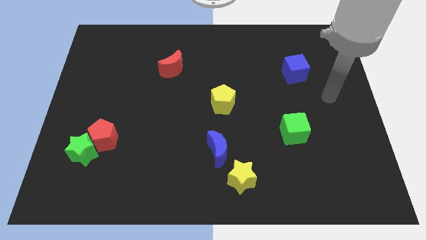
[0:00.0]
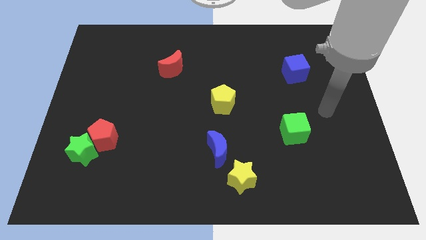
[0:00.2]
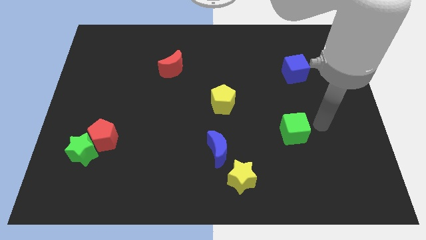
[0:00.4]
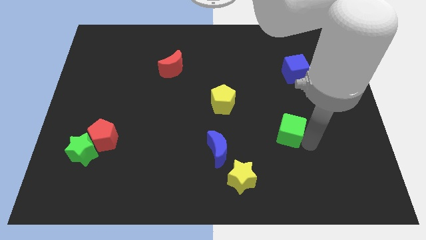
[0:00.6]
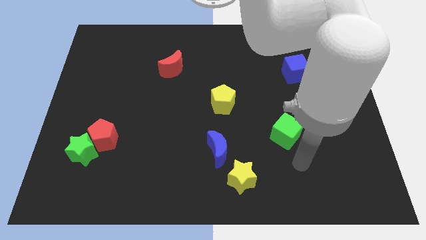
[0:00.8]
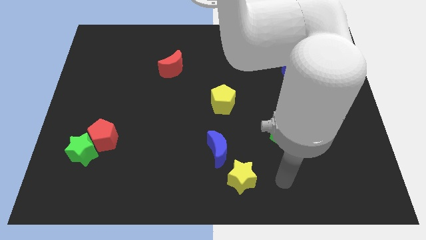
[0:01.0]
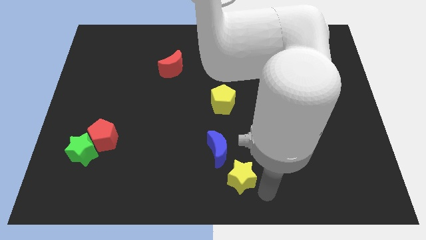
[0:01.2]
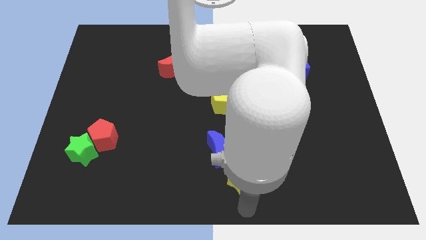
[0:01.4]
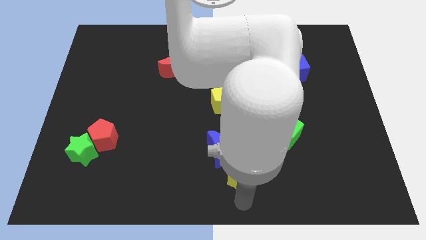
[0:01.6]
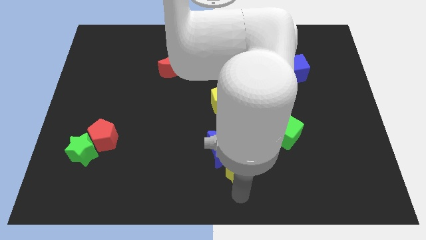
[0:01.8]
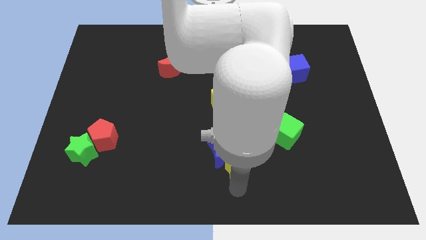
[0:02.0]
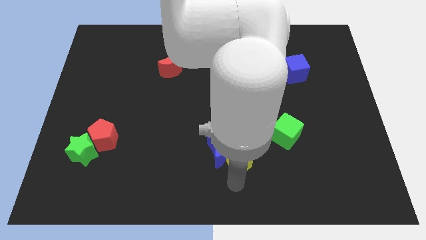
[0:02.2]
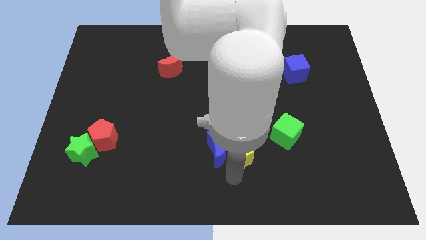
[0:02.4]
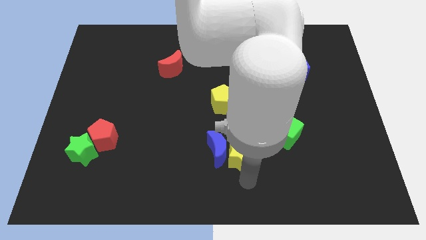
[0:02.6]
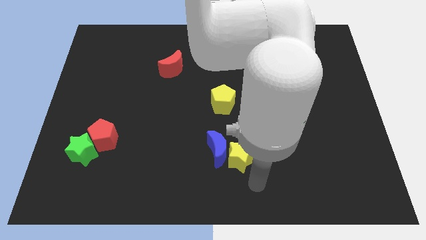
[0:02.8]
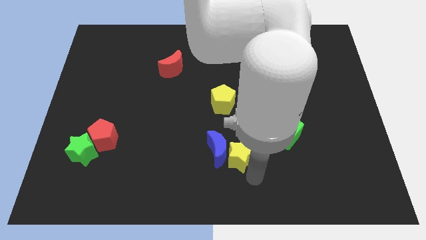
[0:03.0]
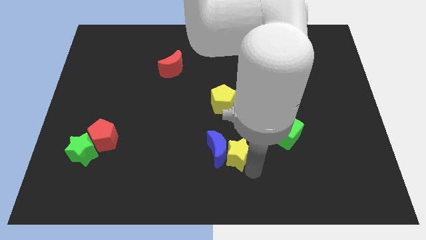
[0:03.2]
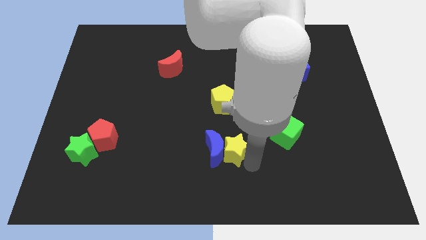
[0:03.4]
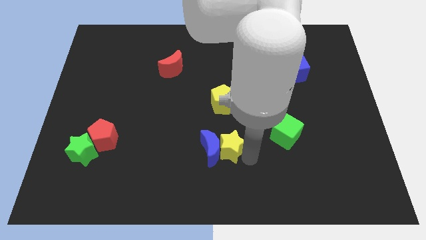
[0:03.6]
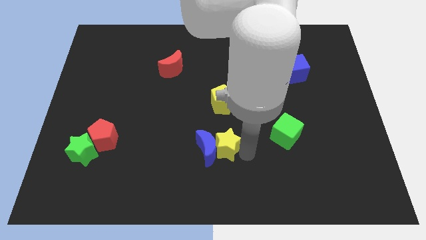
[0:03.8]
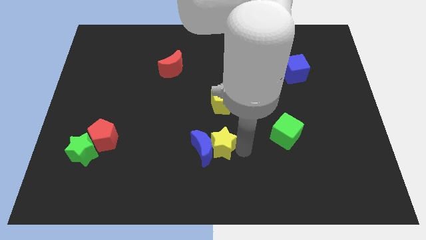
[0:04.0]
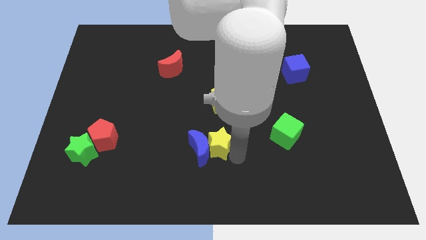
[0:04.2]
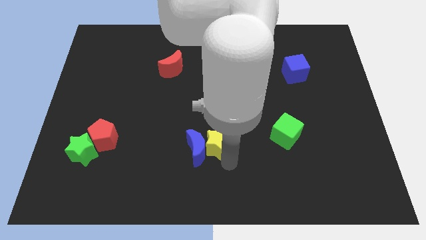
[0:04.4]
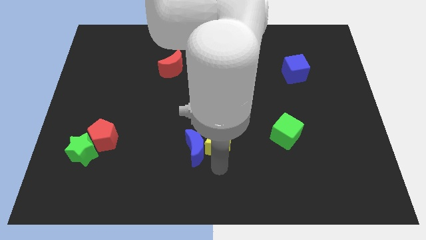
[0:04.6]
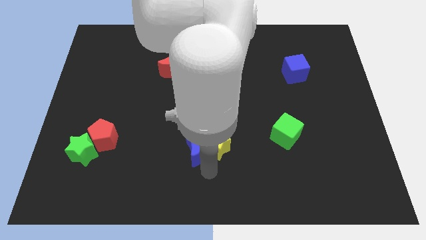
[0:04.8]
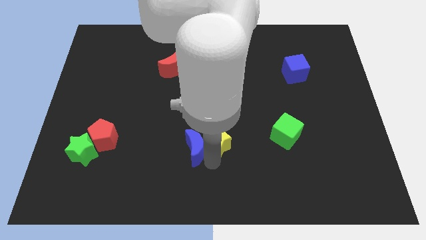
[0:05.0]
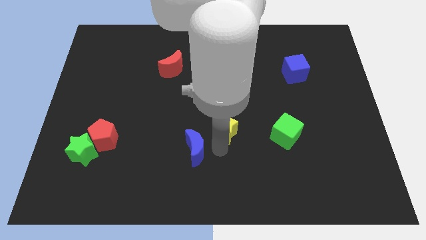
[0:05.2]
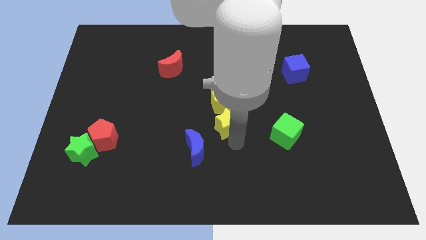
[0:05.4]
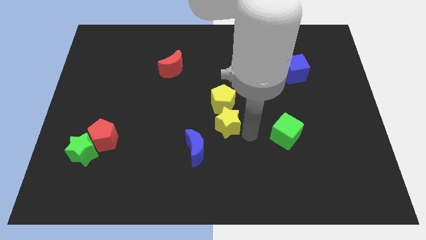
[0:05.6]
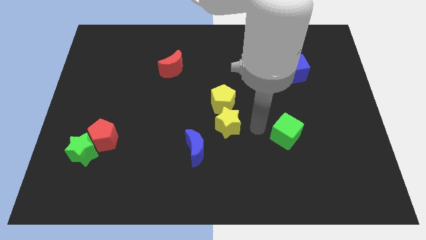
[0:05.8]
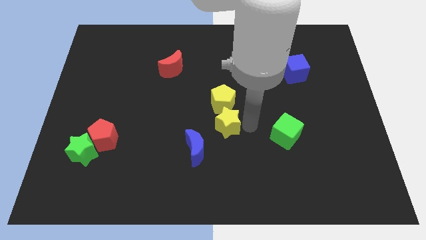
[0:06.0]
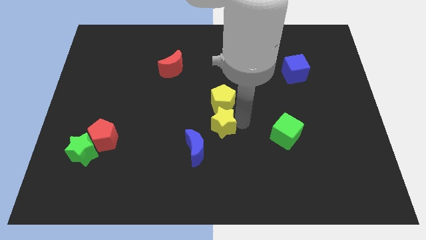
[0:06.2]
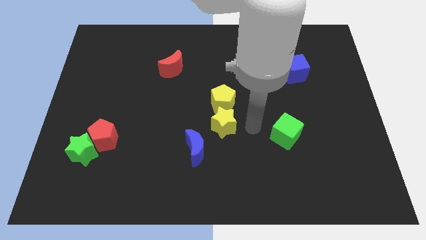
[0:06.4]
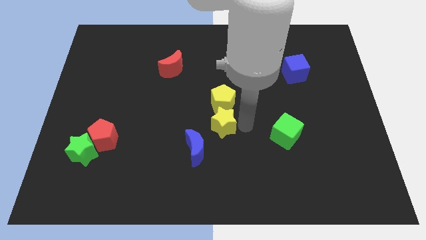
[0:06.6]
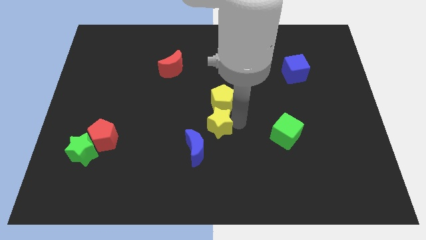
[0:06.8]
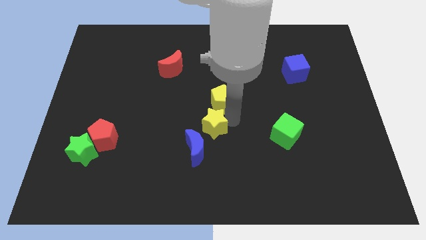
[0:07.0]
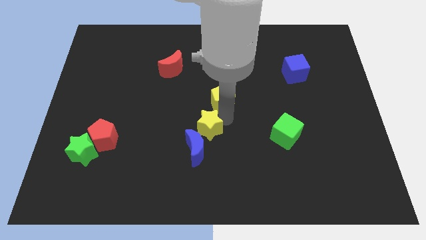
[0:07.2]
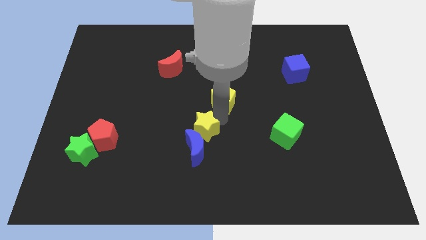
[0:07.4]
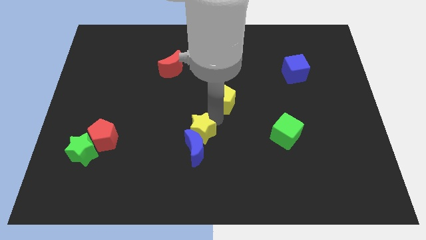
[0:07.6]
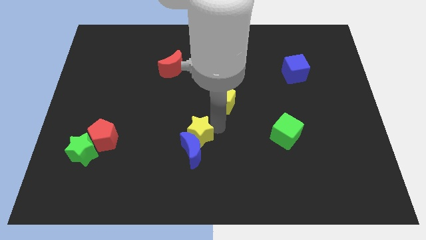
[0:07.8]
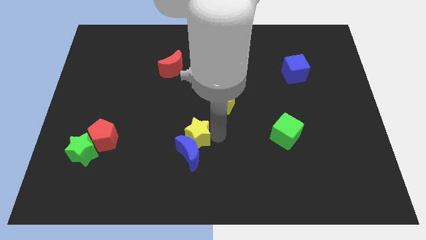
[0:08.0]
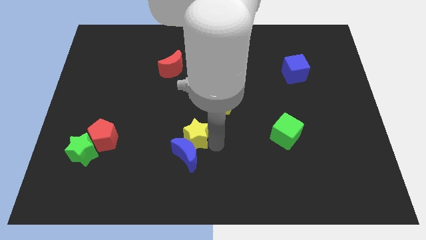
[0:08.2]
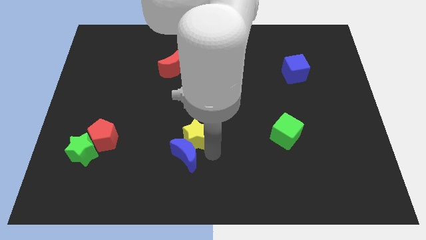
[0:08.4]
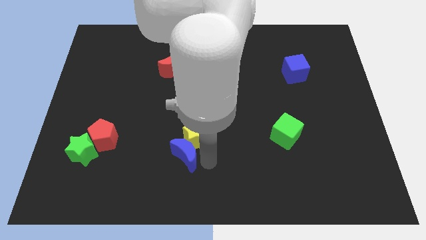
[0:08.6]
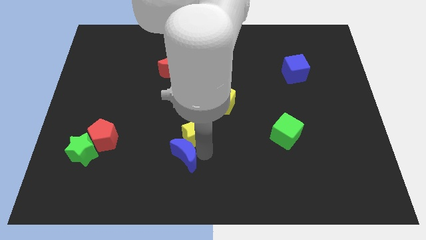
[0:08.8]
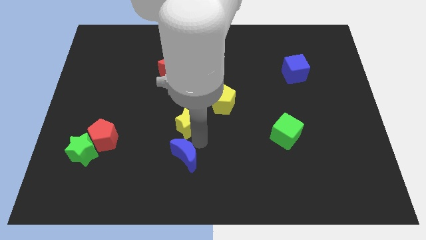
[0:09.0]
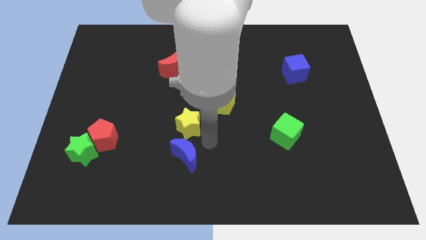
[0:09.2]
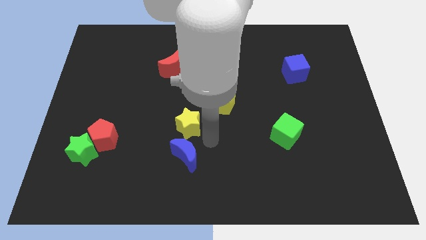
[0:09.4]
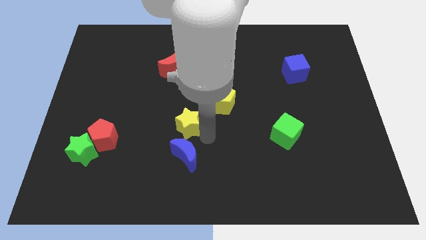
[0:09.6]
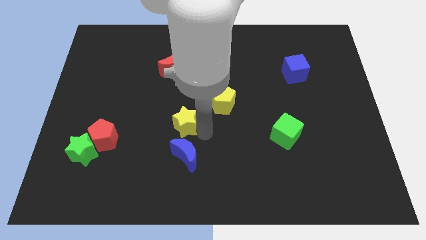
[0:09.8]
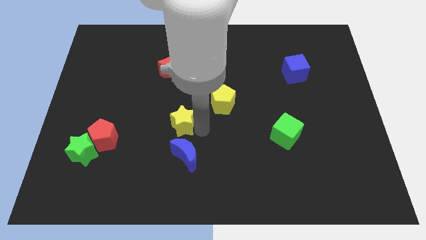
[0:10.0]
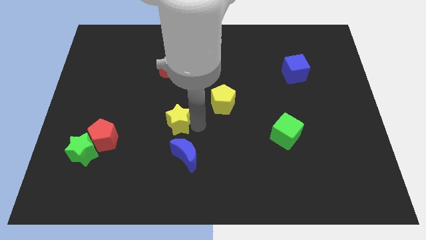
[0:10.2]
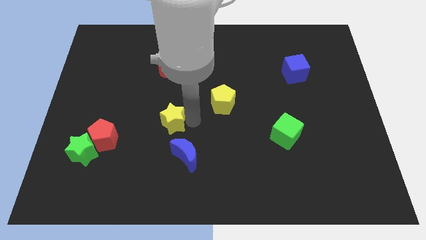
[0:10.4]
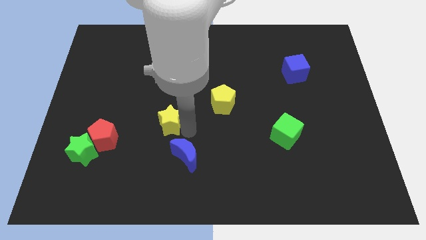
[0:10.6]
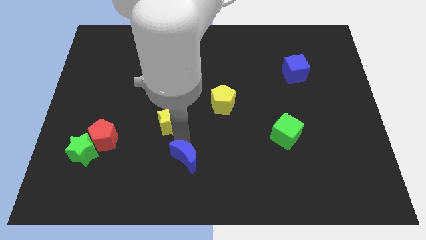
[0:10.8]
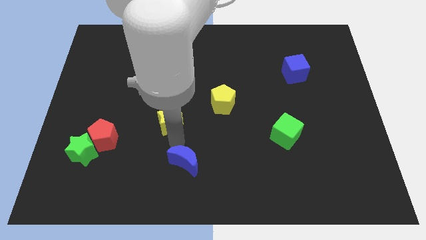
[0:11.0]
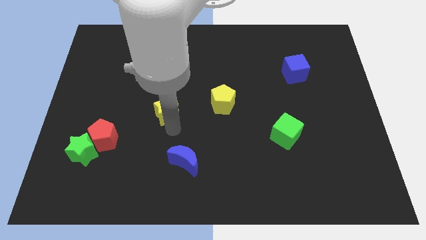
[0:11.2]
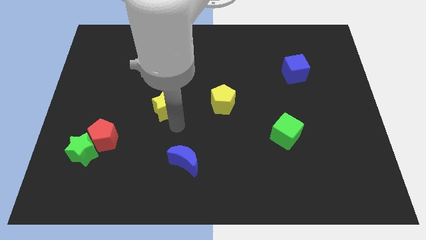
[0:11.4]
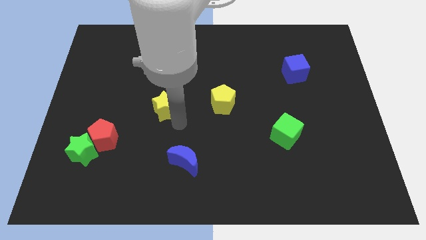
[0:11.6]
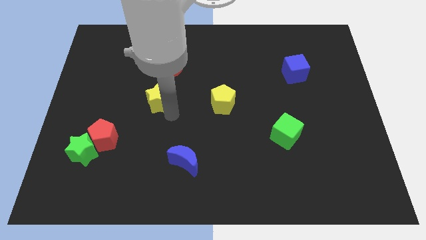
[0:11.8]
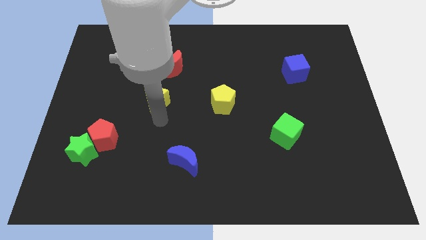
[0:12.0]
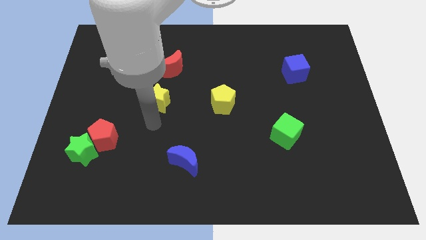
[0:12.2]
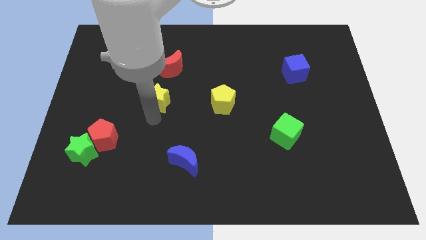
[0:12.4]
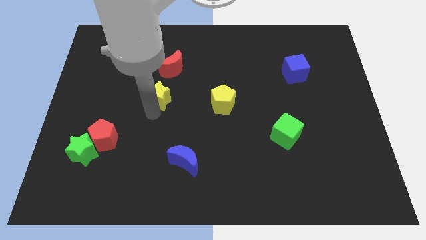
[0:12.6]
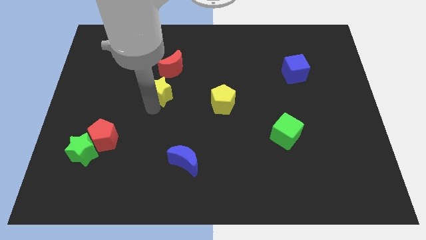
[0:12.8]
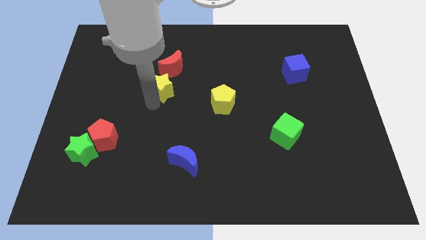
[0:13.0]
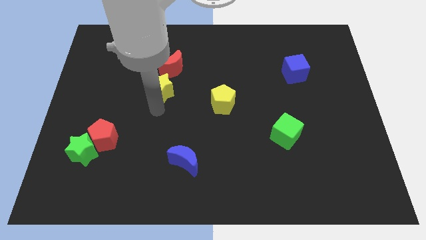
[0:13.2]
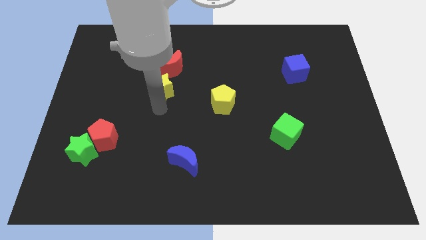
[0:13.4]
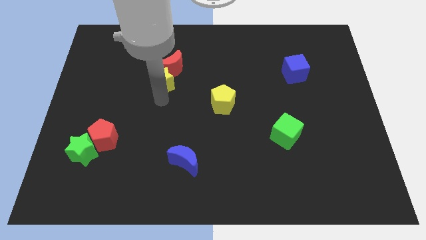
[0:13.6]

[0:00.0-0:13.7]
put the yellow star close to the red moon
